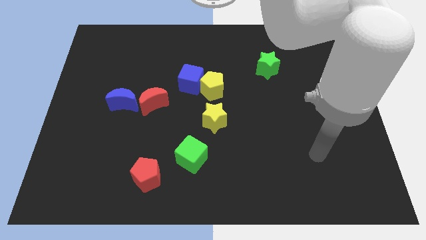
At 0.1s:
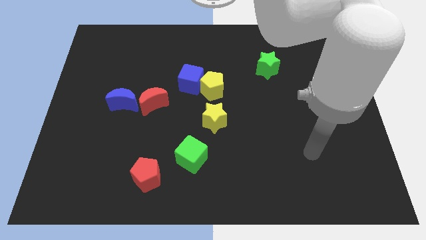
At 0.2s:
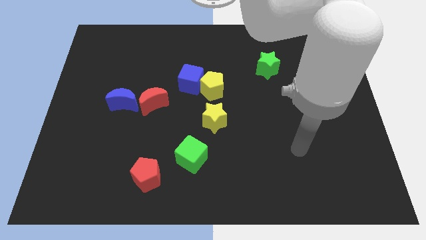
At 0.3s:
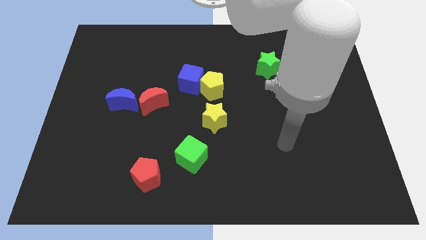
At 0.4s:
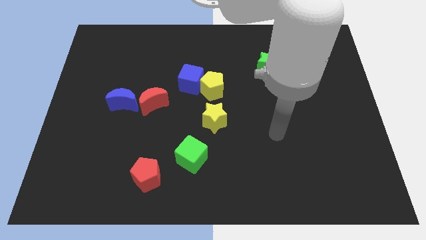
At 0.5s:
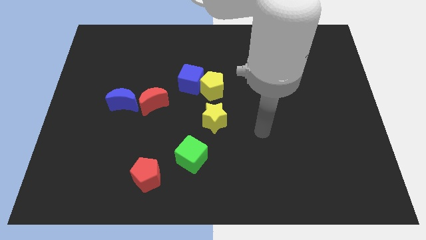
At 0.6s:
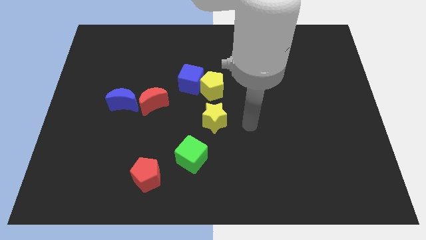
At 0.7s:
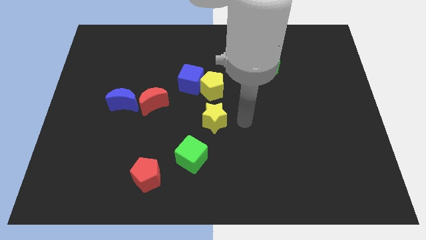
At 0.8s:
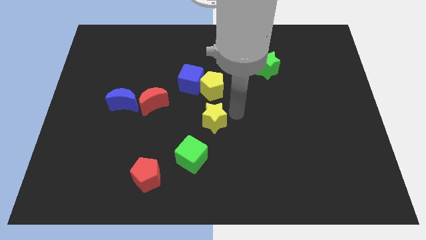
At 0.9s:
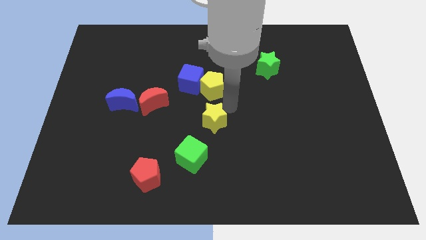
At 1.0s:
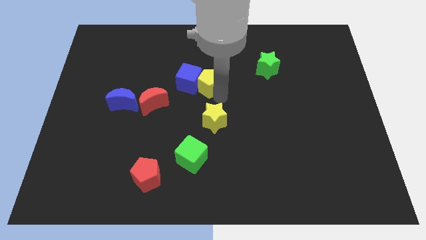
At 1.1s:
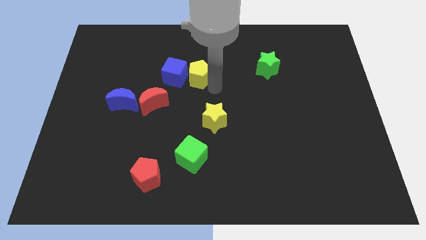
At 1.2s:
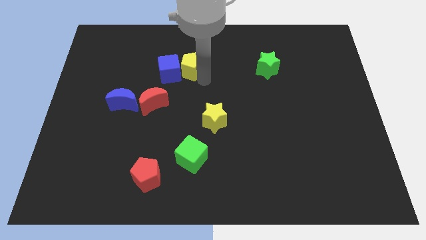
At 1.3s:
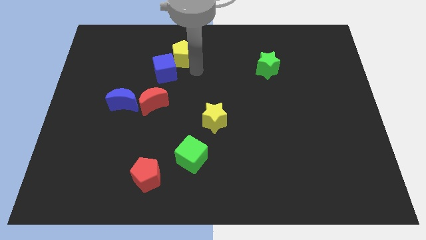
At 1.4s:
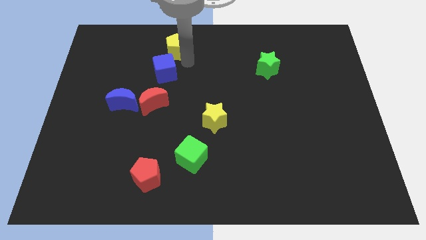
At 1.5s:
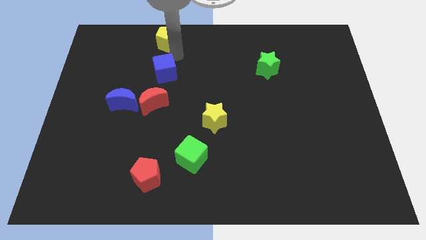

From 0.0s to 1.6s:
pull the blue cube apart from the yellow pentagon

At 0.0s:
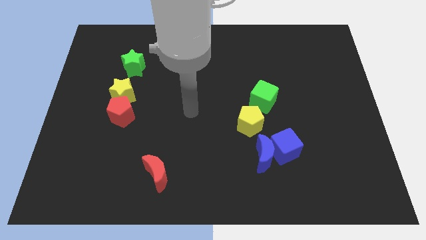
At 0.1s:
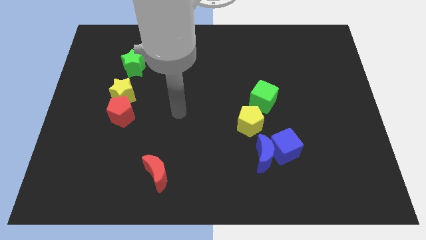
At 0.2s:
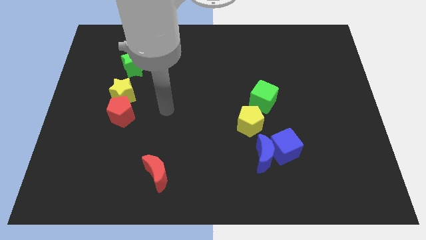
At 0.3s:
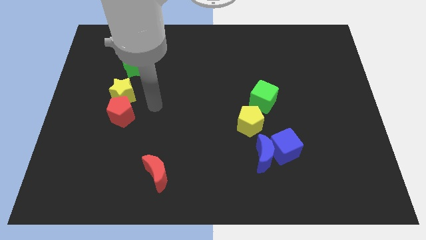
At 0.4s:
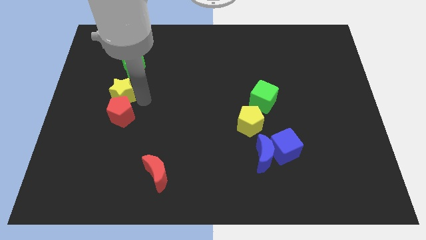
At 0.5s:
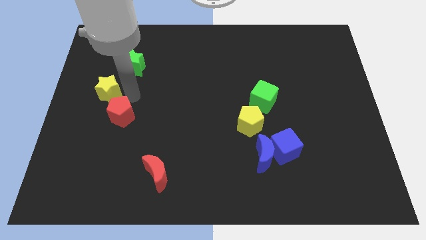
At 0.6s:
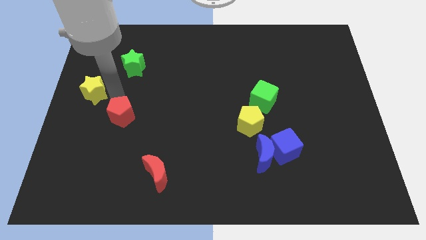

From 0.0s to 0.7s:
separate the red pentagon from the yellow star

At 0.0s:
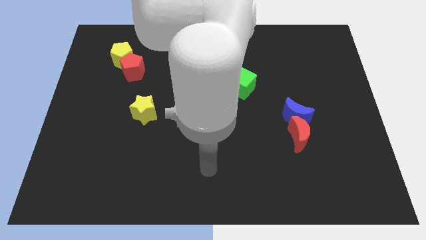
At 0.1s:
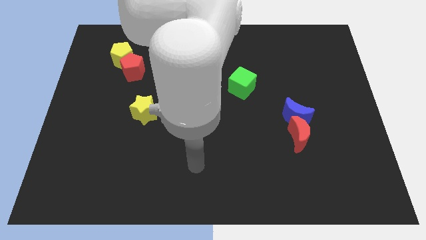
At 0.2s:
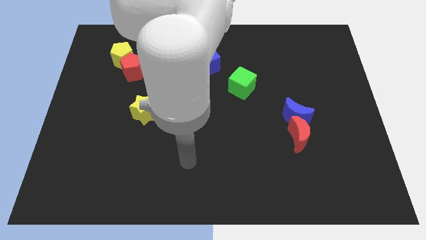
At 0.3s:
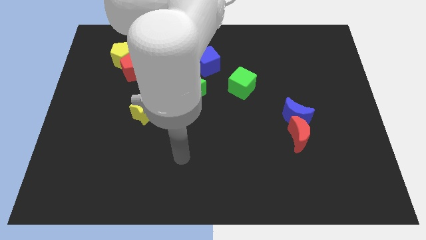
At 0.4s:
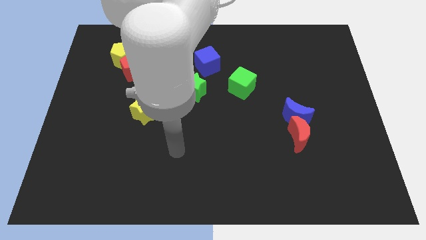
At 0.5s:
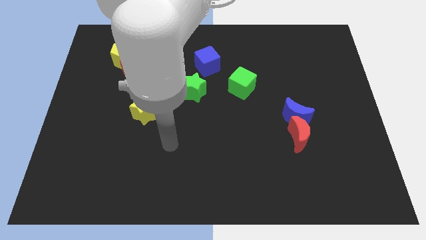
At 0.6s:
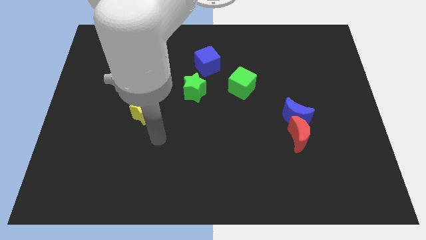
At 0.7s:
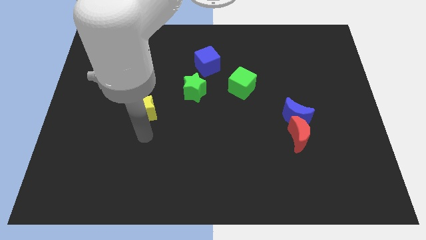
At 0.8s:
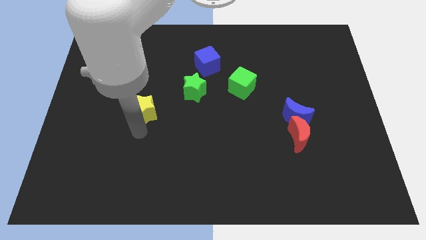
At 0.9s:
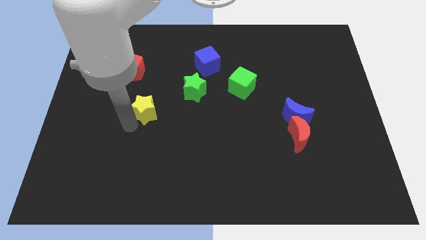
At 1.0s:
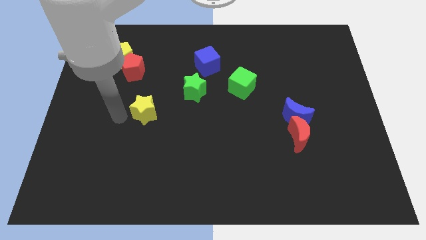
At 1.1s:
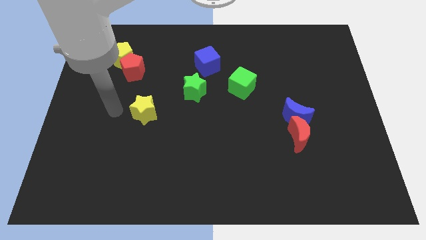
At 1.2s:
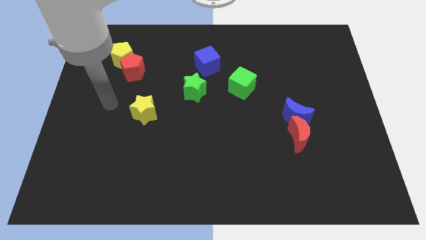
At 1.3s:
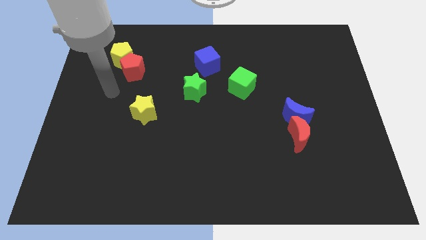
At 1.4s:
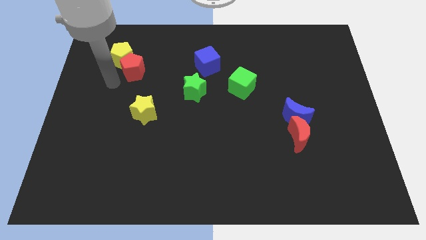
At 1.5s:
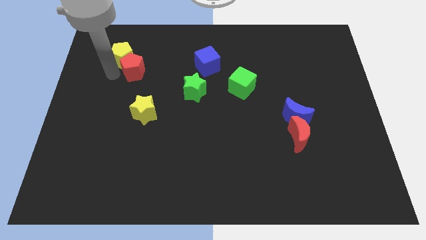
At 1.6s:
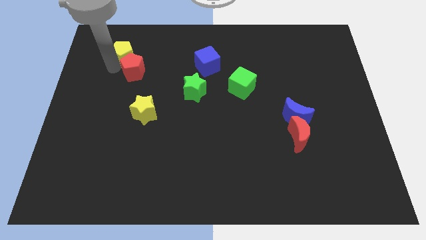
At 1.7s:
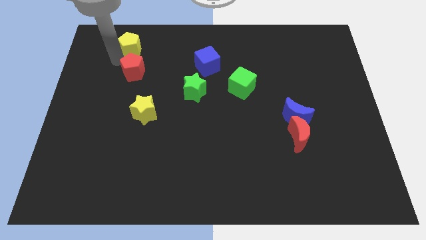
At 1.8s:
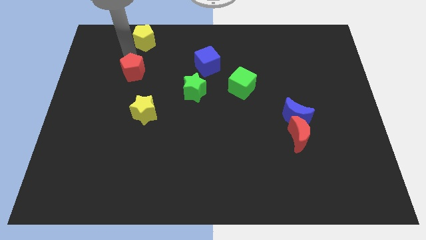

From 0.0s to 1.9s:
pull the red pentagon apart from the yellow pentagon

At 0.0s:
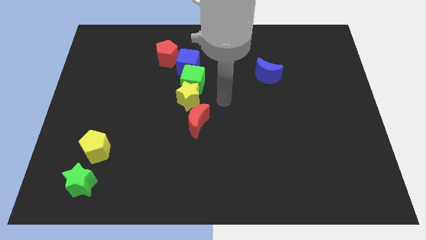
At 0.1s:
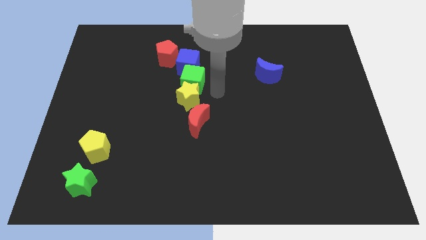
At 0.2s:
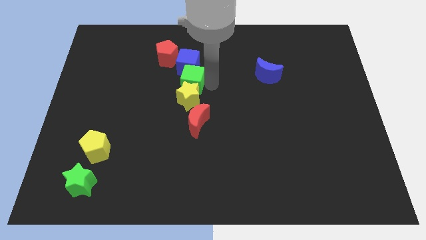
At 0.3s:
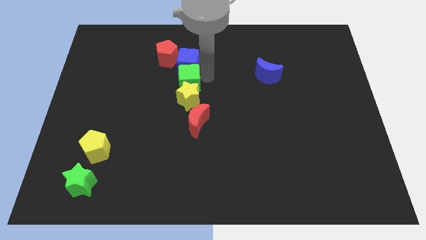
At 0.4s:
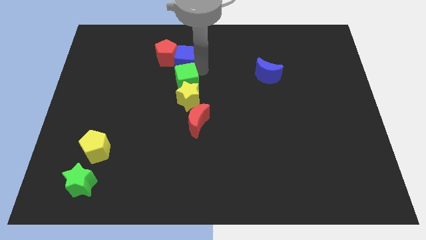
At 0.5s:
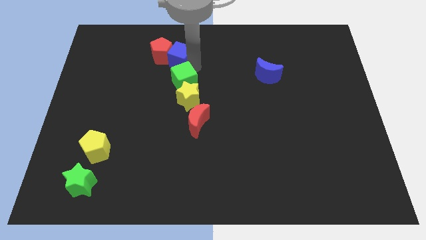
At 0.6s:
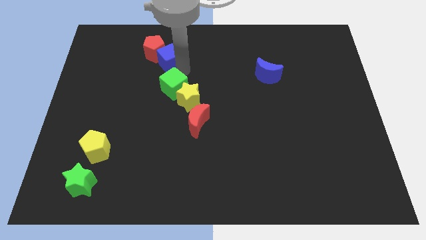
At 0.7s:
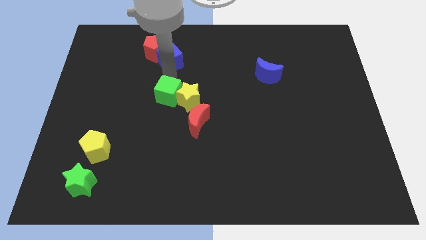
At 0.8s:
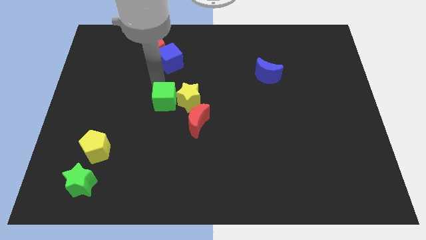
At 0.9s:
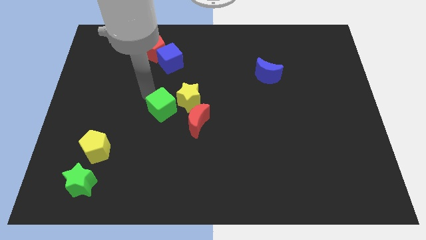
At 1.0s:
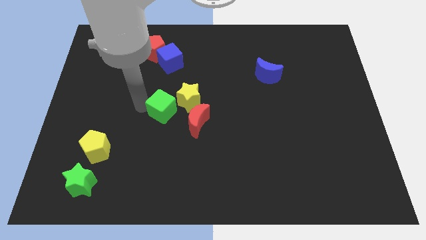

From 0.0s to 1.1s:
pull the green cube apart from the yellow star and blue cube

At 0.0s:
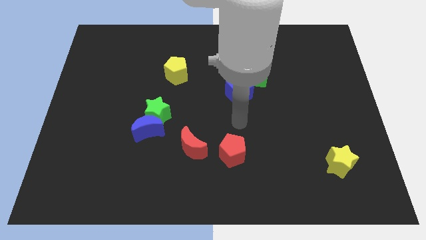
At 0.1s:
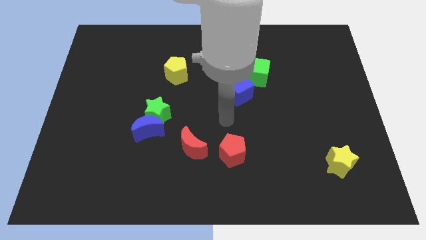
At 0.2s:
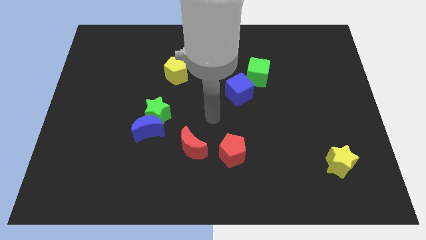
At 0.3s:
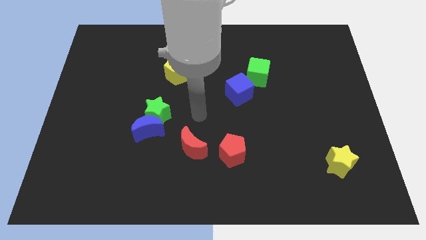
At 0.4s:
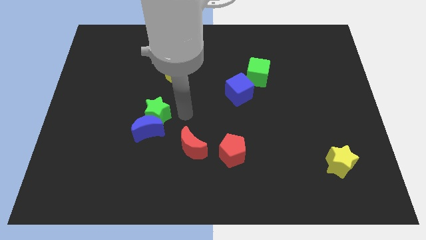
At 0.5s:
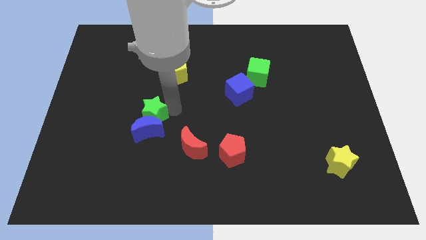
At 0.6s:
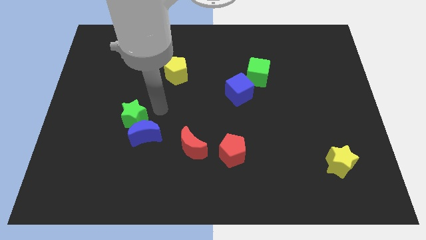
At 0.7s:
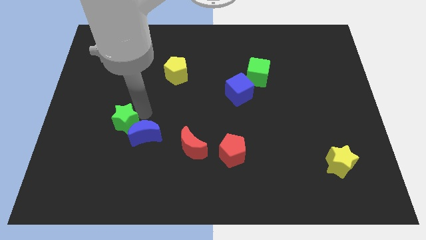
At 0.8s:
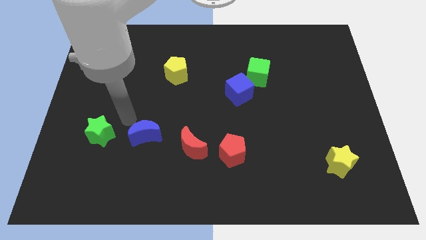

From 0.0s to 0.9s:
pull the blue moon apart from the green star

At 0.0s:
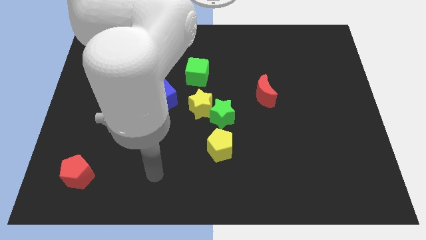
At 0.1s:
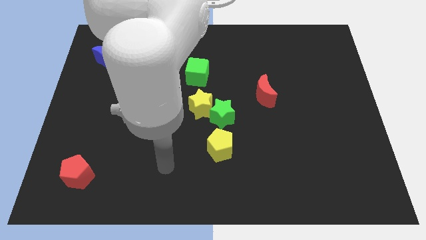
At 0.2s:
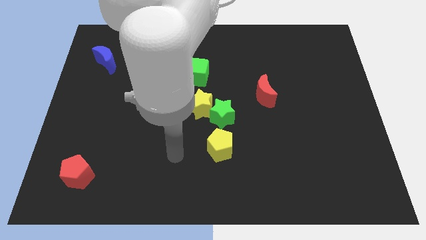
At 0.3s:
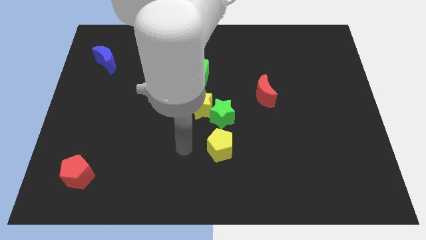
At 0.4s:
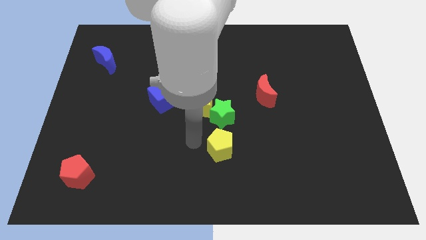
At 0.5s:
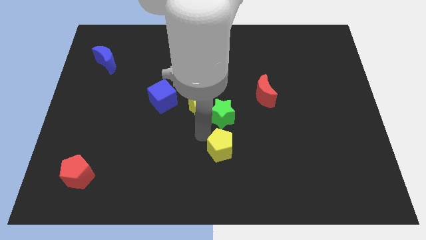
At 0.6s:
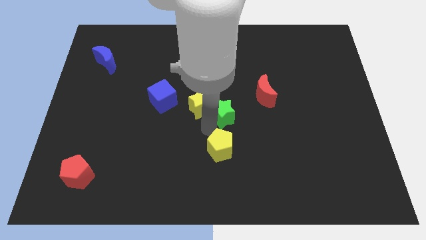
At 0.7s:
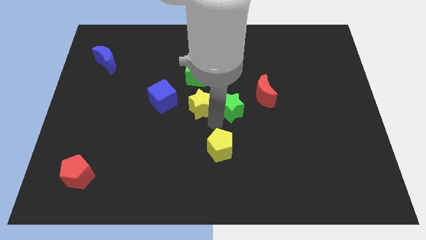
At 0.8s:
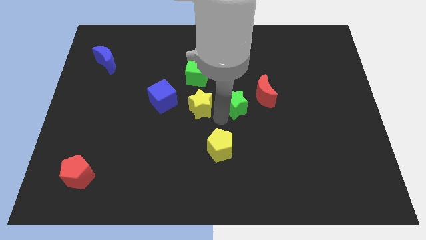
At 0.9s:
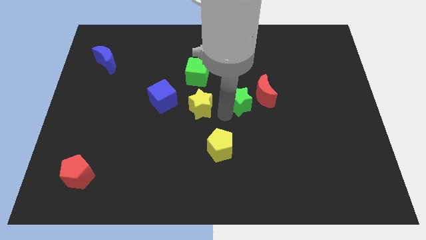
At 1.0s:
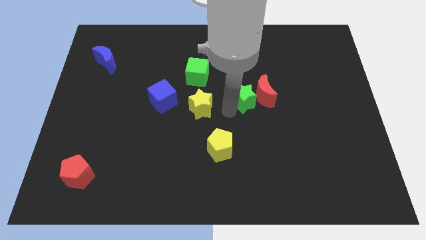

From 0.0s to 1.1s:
move the green star away from the yellow star and yellow pentagon

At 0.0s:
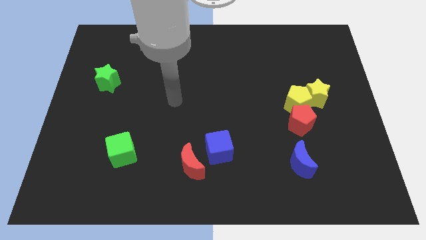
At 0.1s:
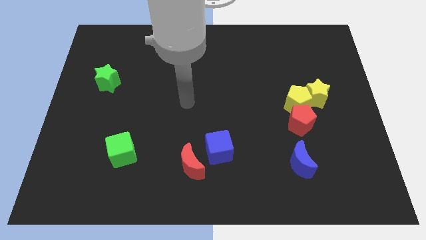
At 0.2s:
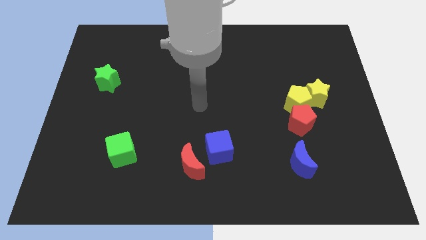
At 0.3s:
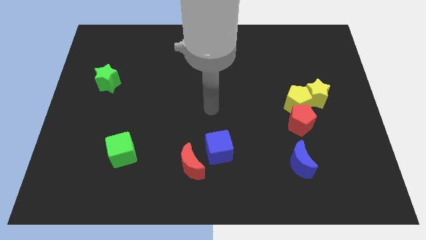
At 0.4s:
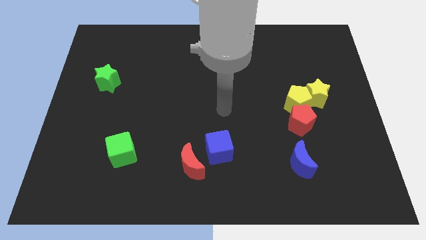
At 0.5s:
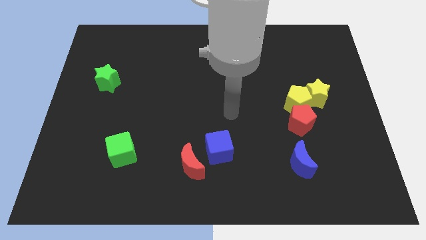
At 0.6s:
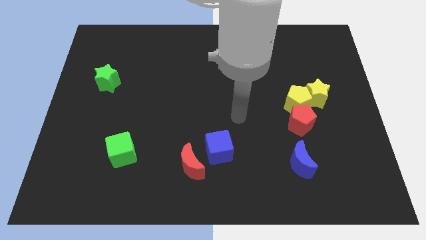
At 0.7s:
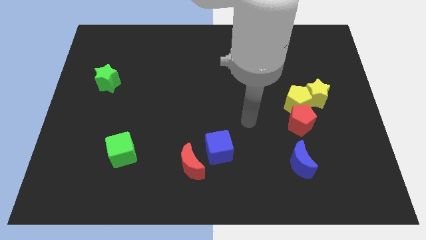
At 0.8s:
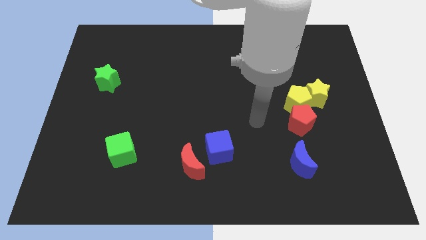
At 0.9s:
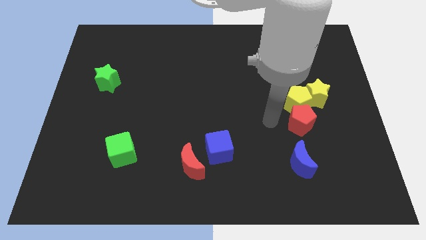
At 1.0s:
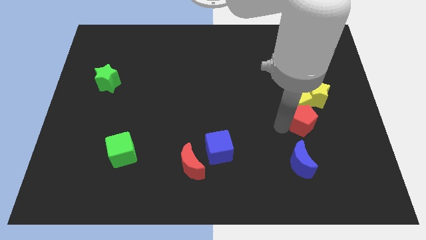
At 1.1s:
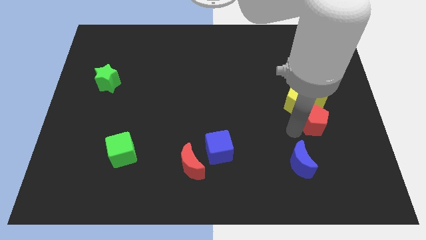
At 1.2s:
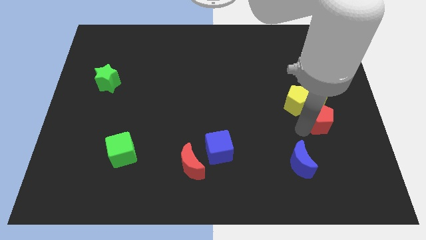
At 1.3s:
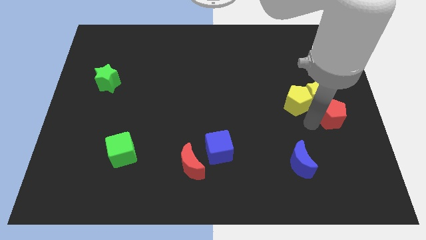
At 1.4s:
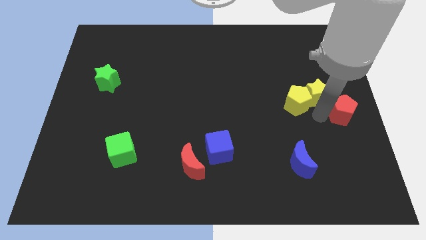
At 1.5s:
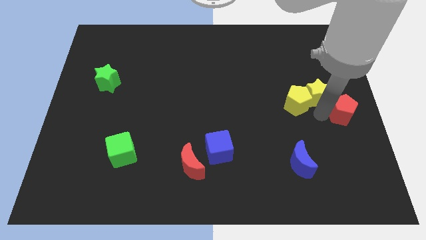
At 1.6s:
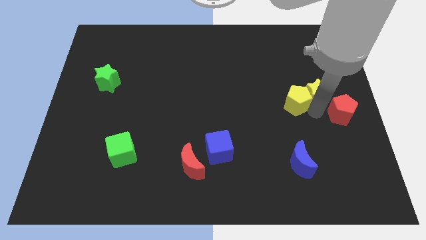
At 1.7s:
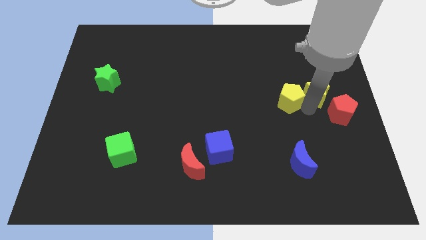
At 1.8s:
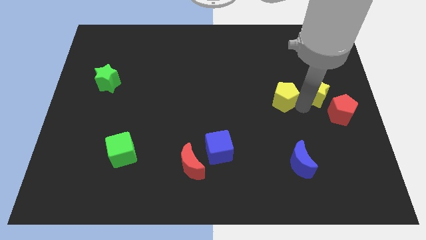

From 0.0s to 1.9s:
move the yellow pentagon away from the red pentagon and yellow star

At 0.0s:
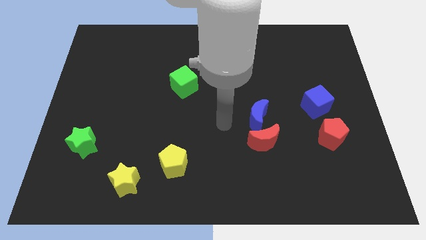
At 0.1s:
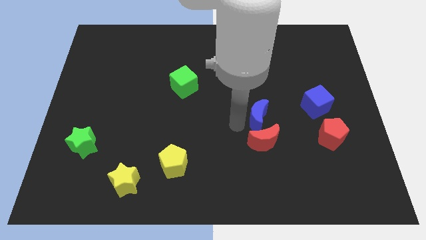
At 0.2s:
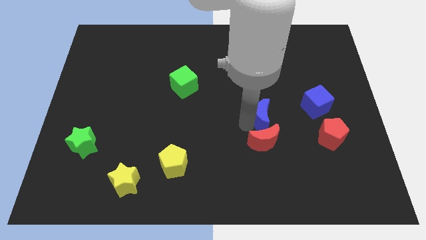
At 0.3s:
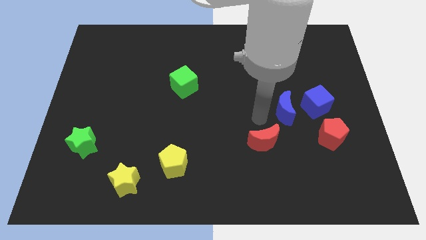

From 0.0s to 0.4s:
pull the red moon apart from the blue moon
